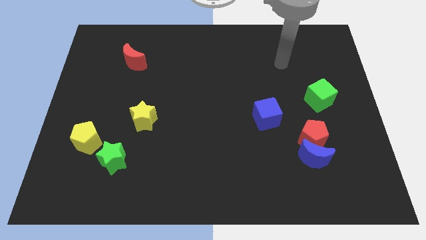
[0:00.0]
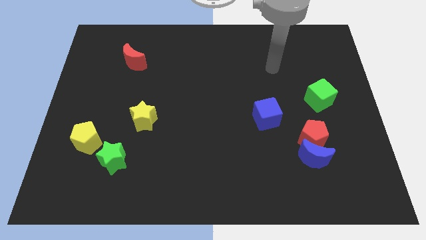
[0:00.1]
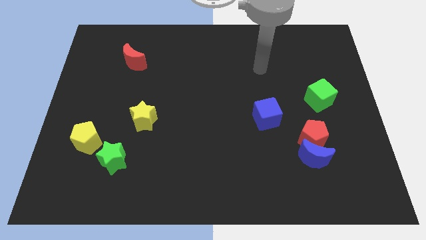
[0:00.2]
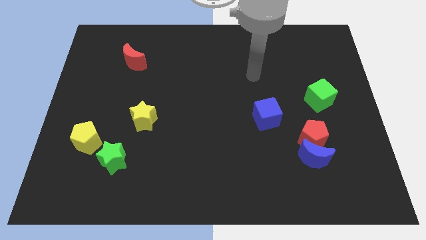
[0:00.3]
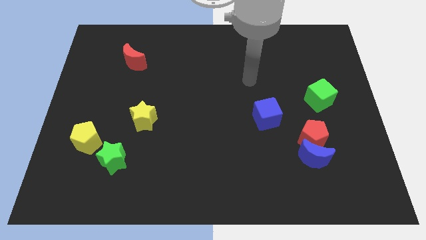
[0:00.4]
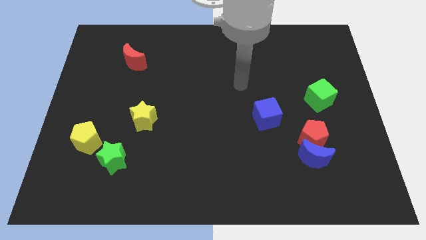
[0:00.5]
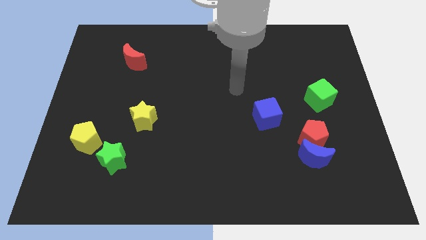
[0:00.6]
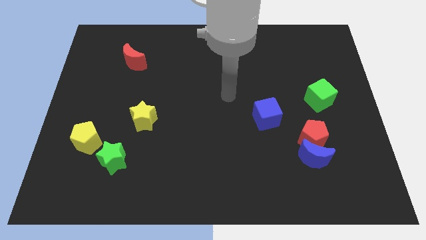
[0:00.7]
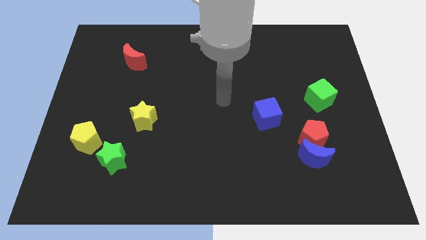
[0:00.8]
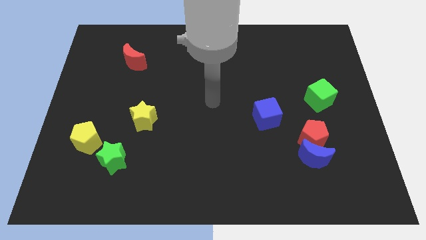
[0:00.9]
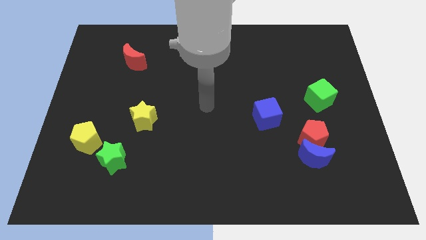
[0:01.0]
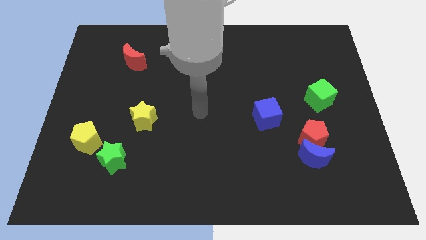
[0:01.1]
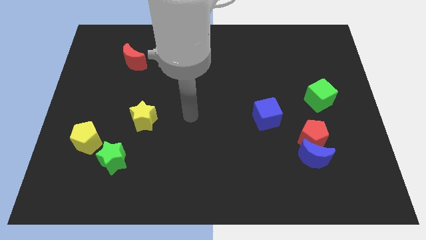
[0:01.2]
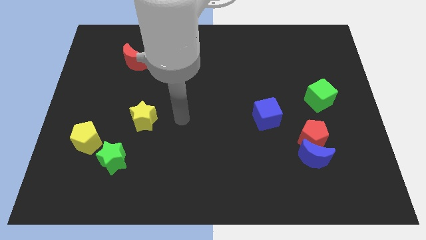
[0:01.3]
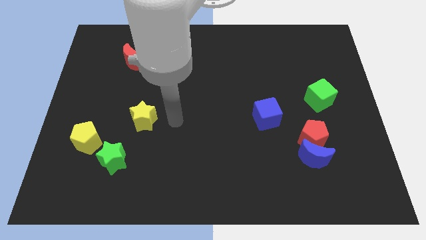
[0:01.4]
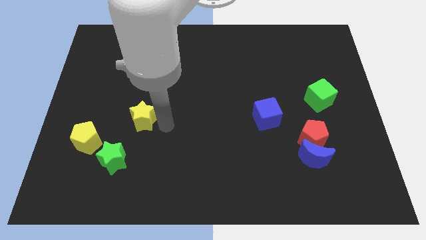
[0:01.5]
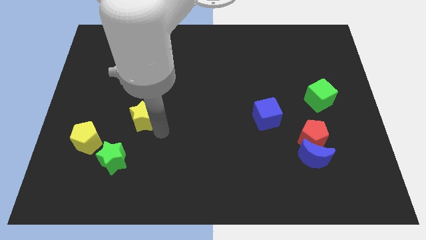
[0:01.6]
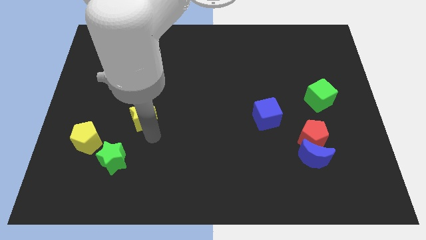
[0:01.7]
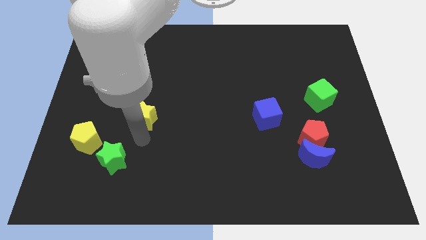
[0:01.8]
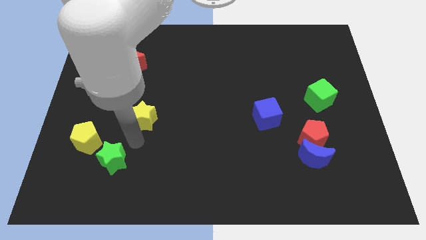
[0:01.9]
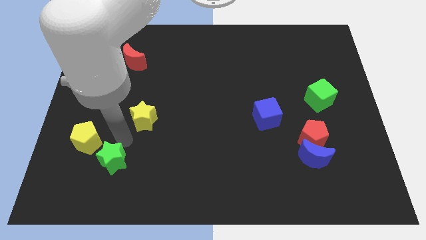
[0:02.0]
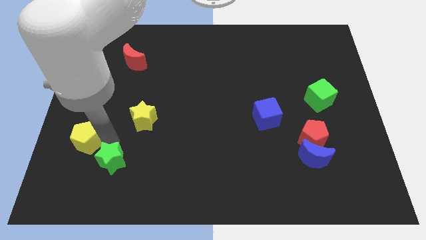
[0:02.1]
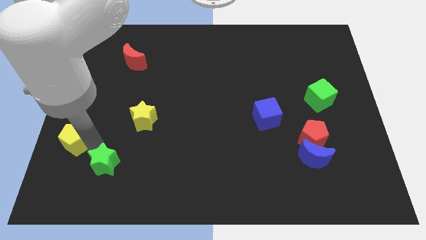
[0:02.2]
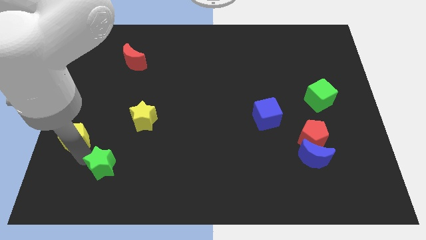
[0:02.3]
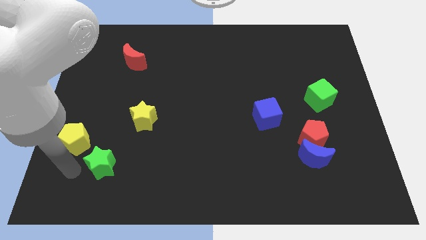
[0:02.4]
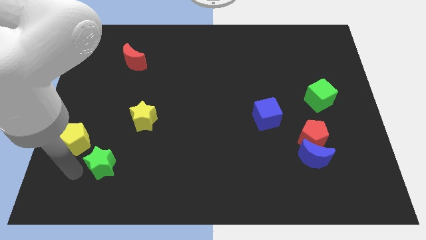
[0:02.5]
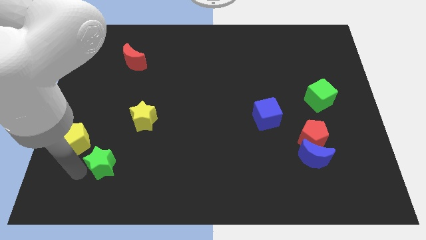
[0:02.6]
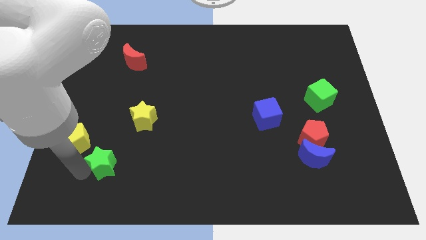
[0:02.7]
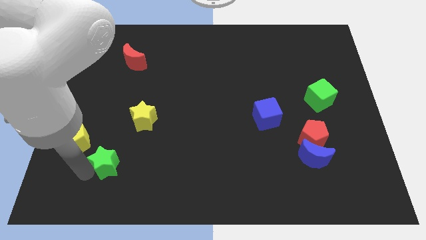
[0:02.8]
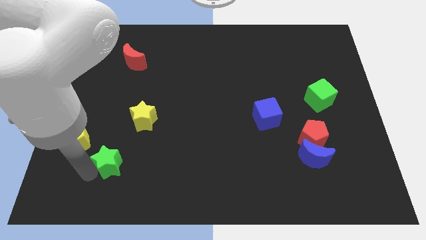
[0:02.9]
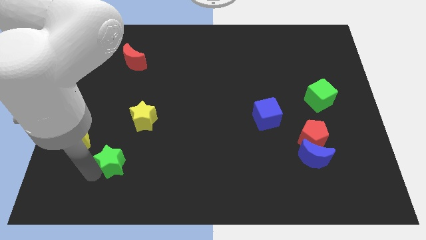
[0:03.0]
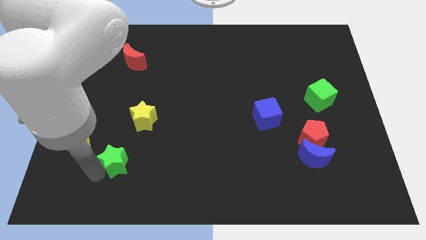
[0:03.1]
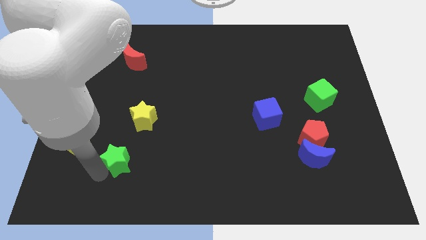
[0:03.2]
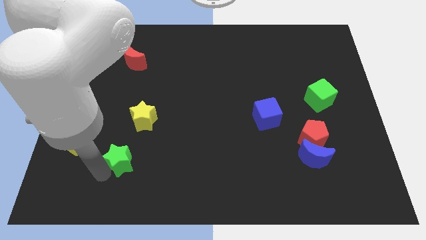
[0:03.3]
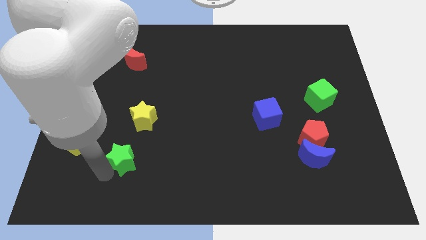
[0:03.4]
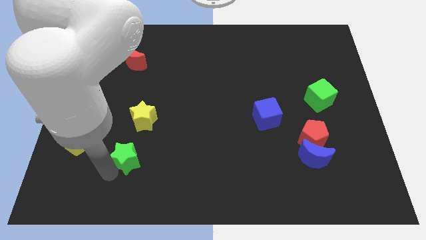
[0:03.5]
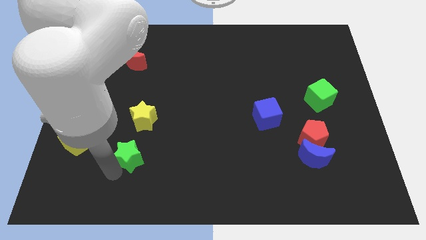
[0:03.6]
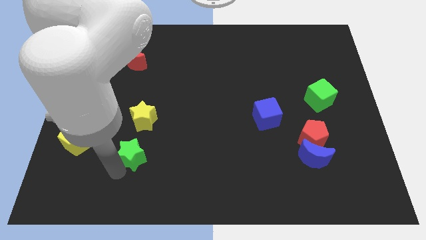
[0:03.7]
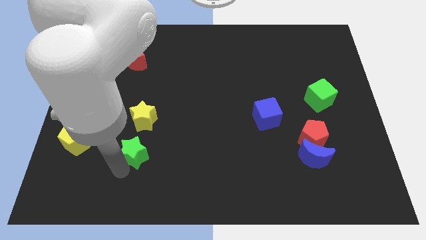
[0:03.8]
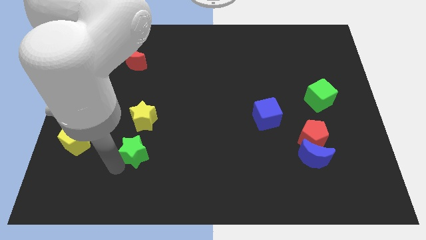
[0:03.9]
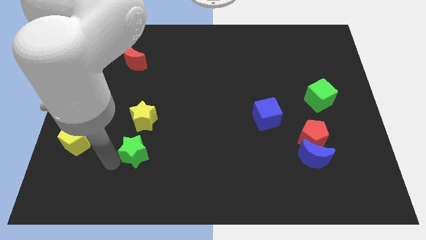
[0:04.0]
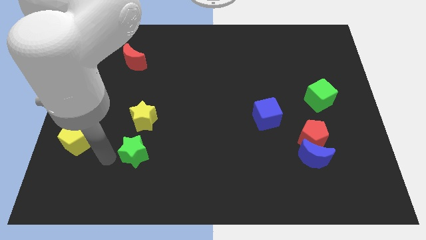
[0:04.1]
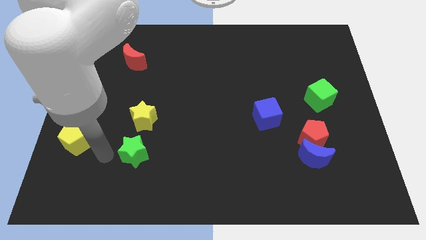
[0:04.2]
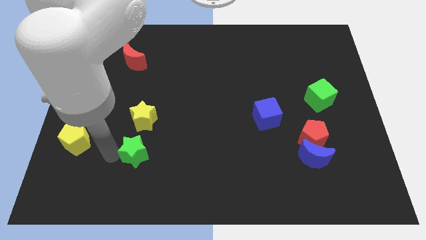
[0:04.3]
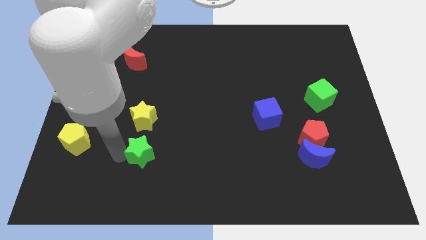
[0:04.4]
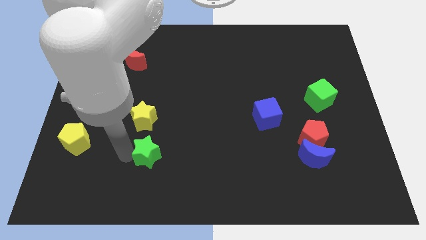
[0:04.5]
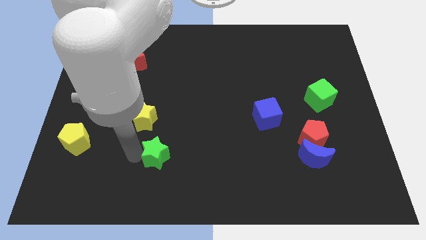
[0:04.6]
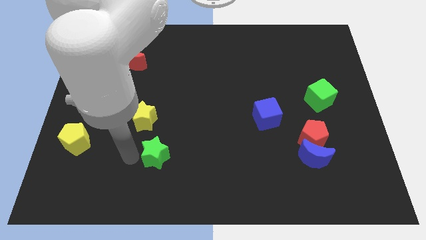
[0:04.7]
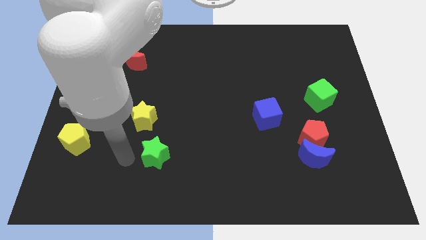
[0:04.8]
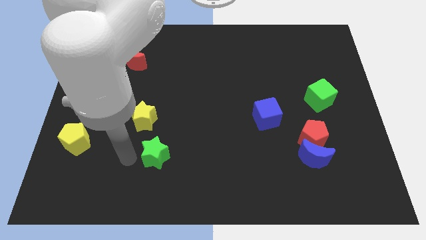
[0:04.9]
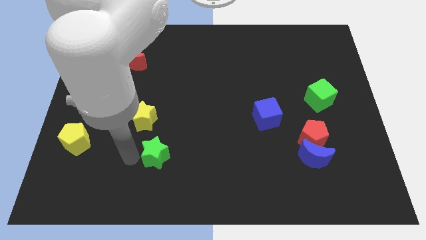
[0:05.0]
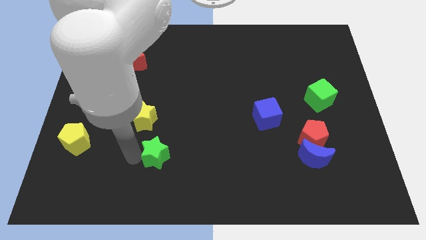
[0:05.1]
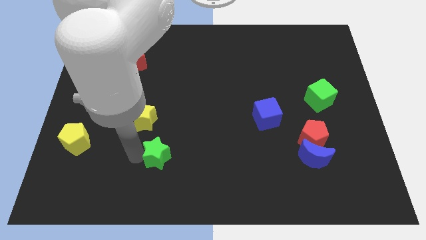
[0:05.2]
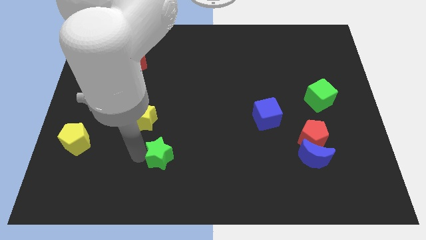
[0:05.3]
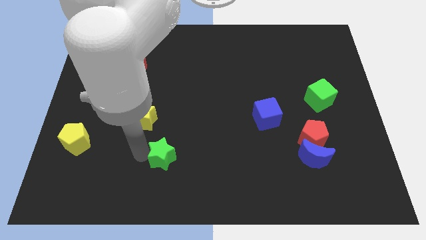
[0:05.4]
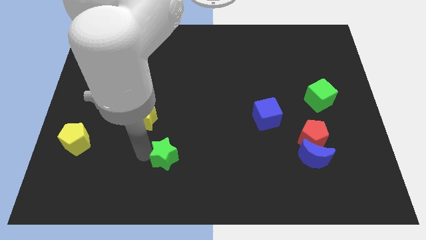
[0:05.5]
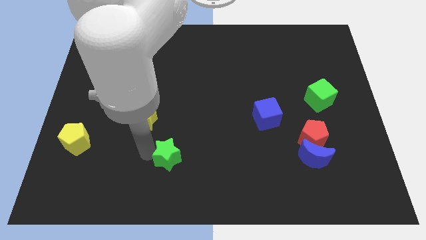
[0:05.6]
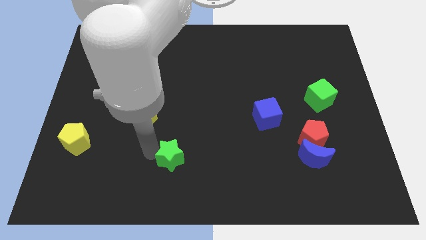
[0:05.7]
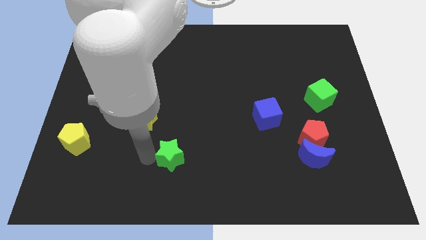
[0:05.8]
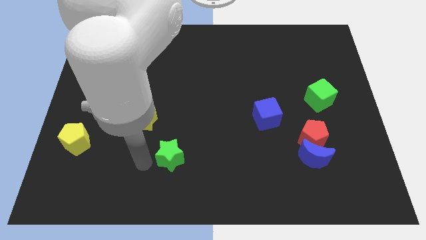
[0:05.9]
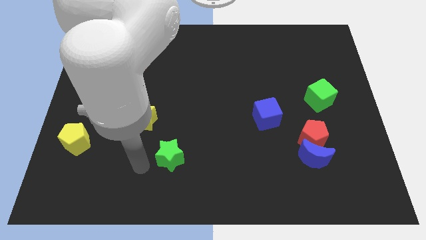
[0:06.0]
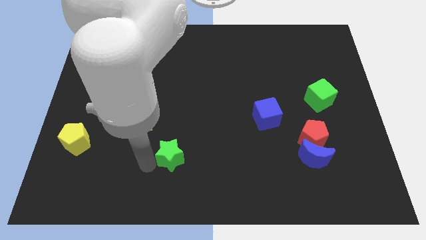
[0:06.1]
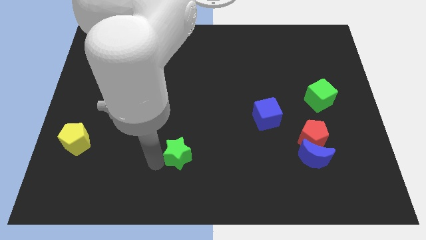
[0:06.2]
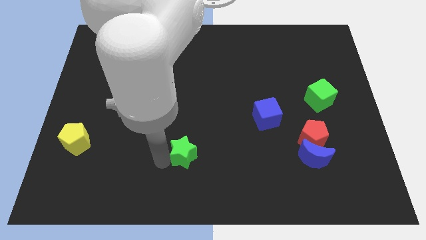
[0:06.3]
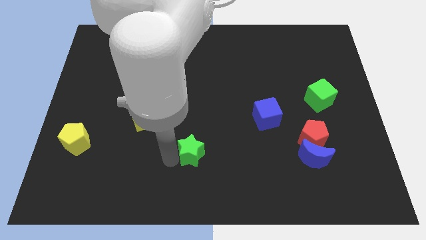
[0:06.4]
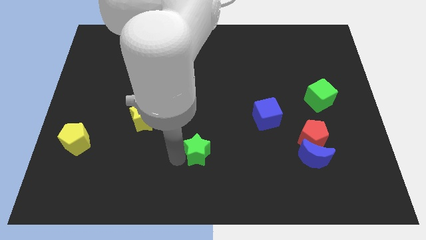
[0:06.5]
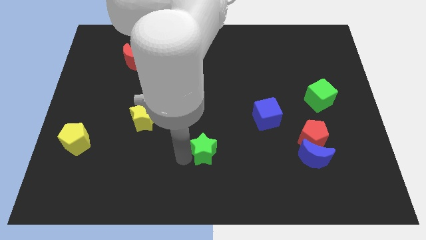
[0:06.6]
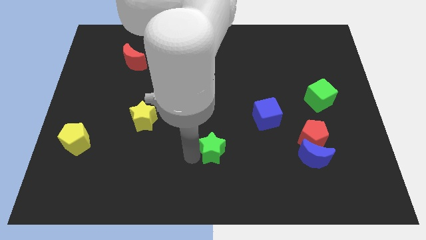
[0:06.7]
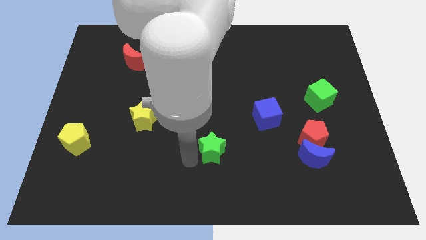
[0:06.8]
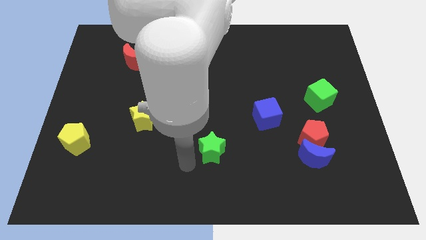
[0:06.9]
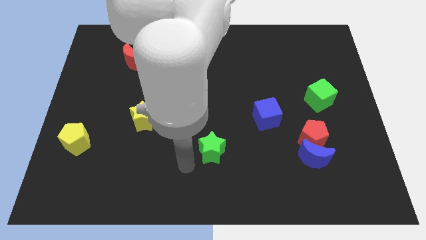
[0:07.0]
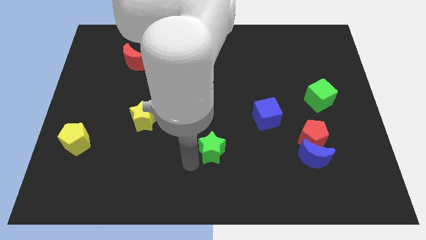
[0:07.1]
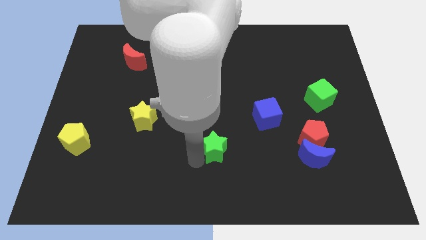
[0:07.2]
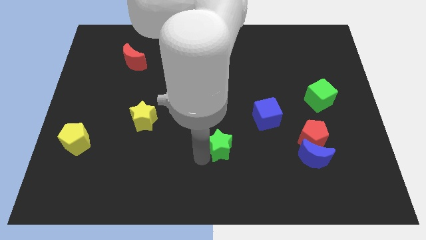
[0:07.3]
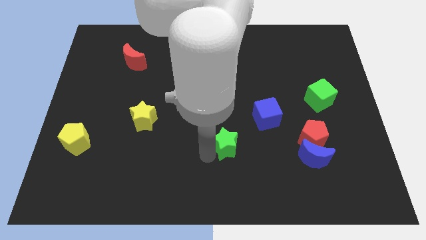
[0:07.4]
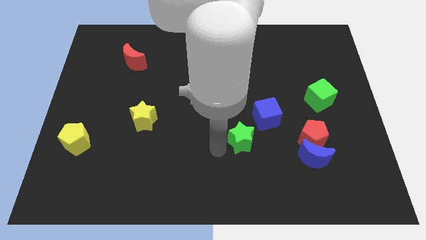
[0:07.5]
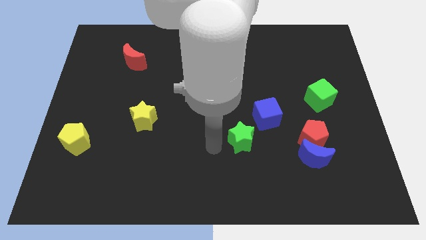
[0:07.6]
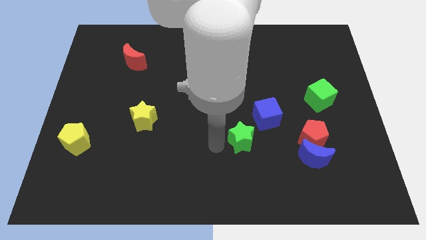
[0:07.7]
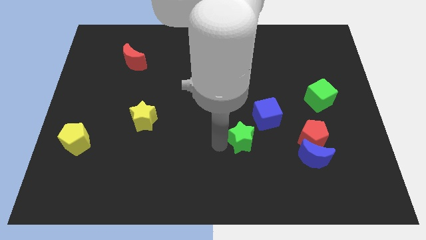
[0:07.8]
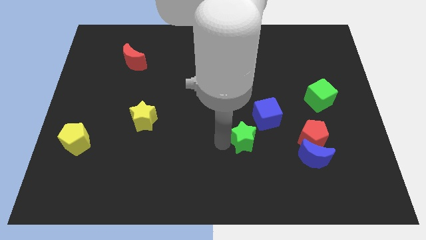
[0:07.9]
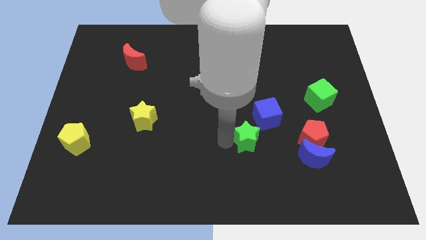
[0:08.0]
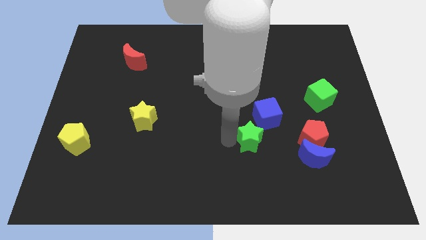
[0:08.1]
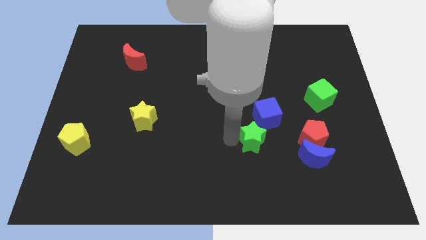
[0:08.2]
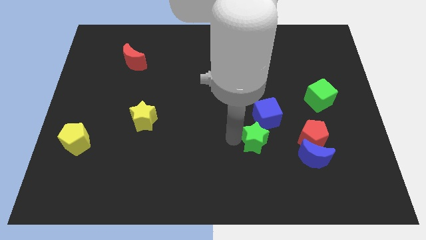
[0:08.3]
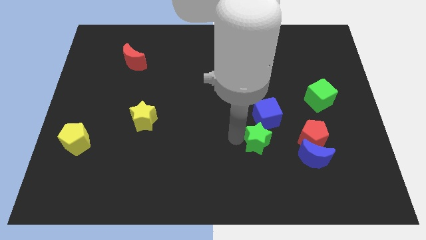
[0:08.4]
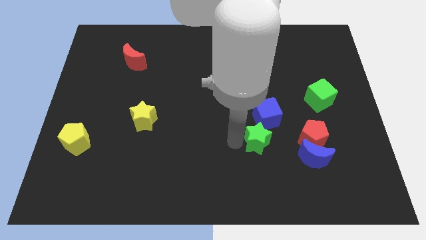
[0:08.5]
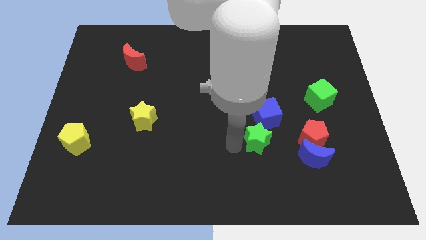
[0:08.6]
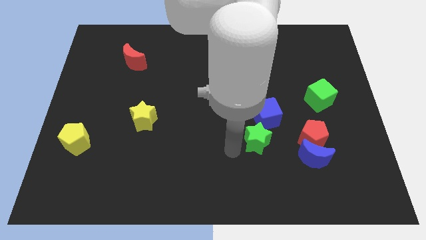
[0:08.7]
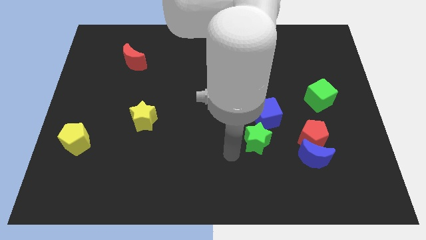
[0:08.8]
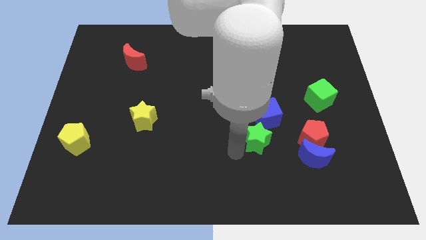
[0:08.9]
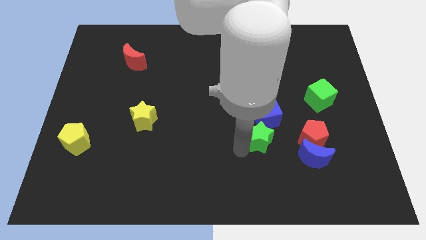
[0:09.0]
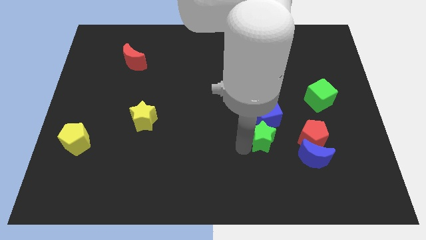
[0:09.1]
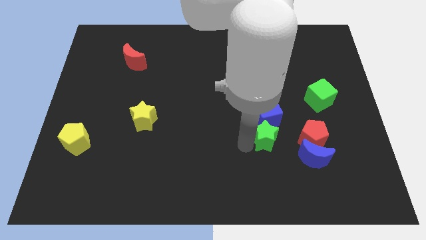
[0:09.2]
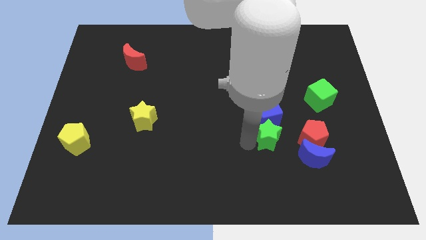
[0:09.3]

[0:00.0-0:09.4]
push the green star diagonally down and to the right of the blue cube
